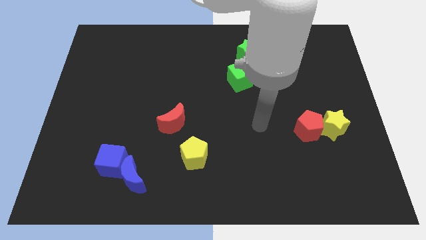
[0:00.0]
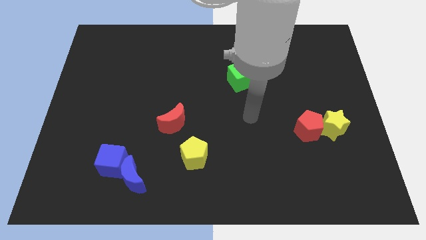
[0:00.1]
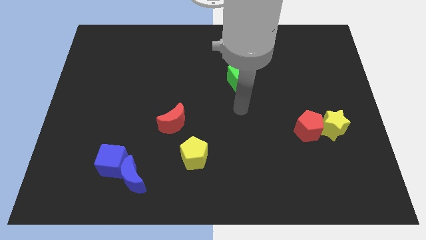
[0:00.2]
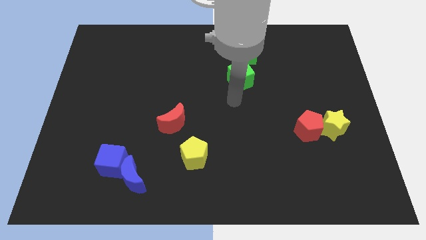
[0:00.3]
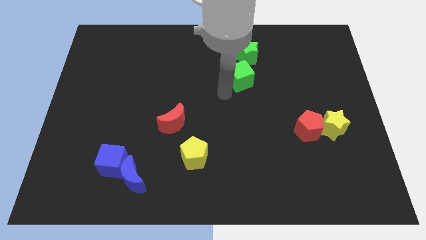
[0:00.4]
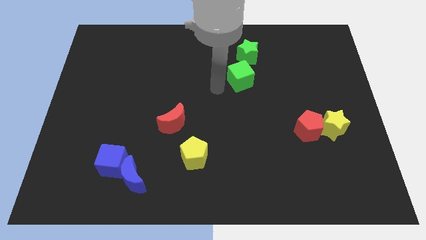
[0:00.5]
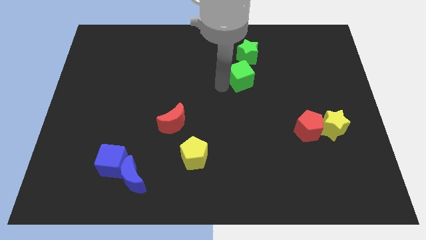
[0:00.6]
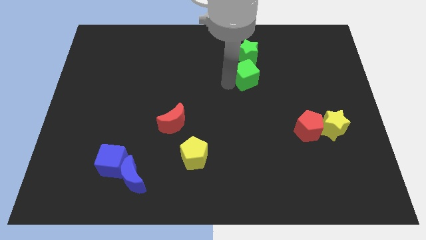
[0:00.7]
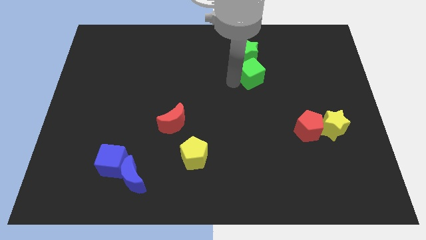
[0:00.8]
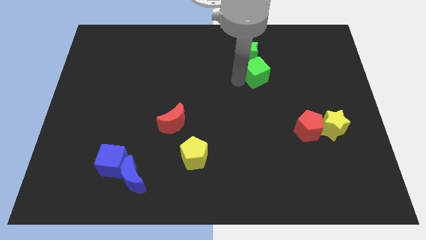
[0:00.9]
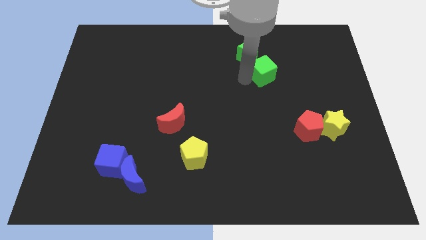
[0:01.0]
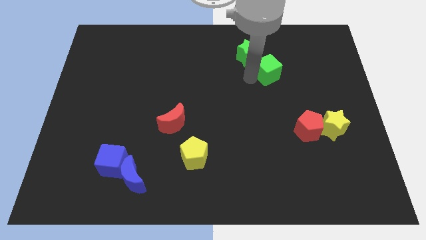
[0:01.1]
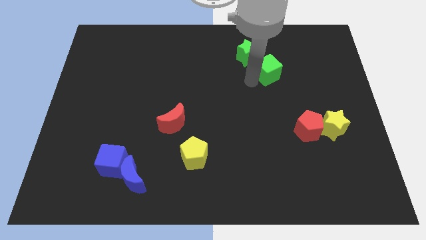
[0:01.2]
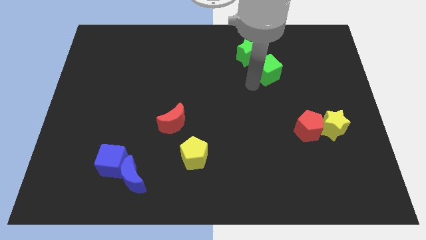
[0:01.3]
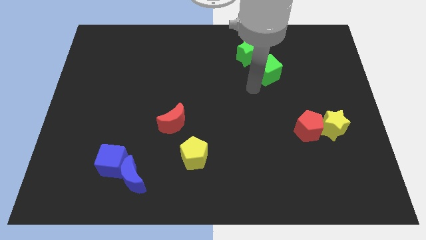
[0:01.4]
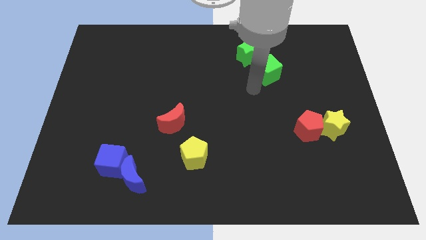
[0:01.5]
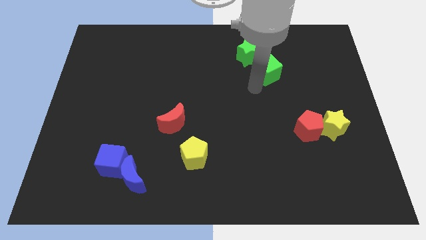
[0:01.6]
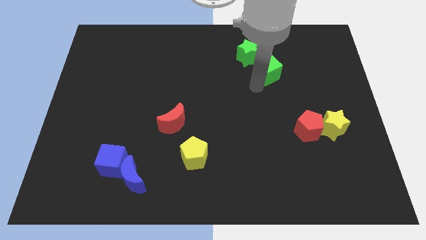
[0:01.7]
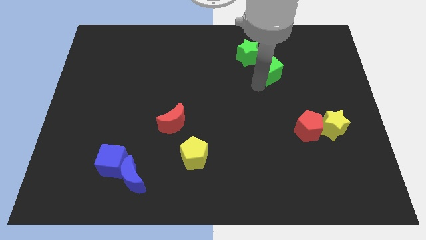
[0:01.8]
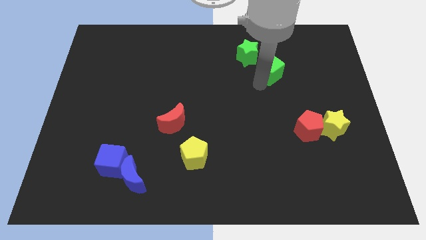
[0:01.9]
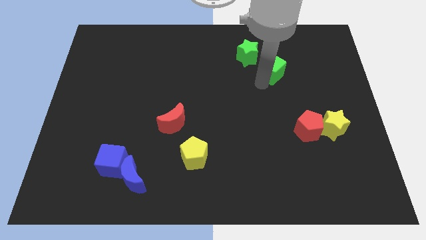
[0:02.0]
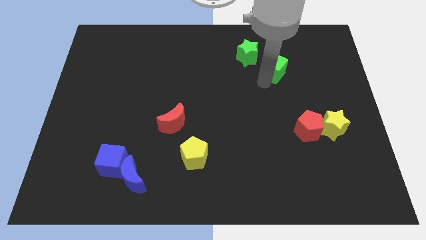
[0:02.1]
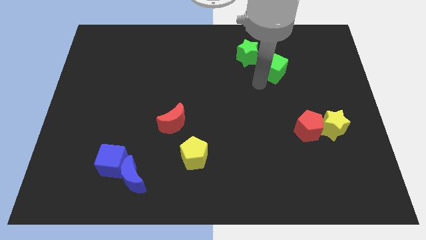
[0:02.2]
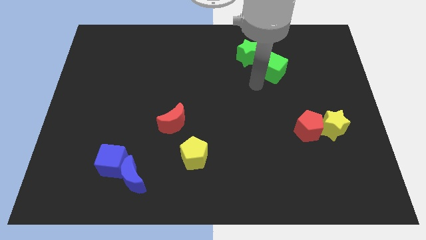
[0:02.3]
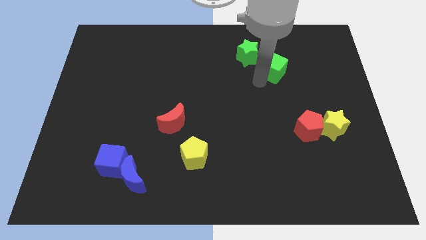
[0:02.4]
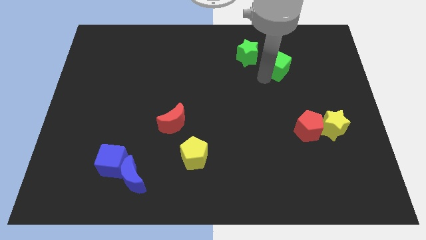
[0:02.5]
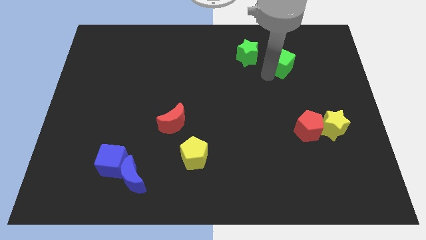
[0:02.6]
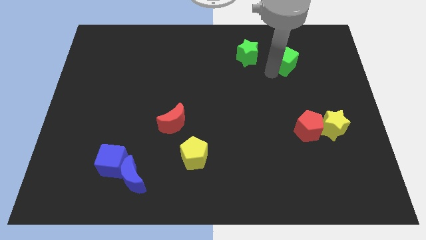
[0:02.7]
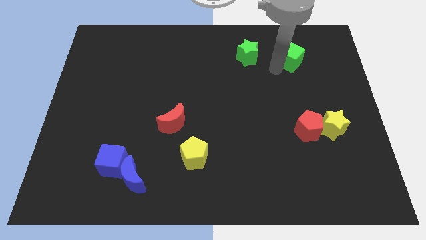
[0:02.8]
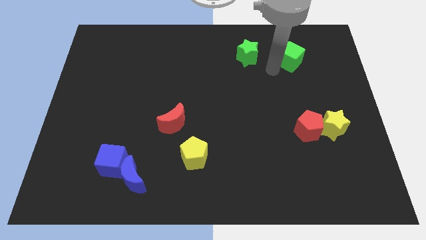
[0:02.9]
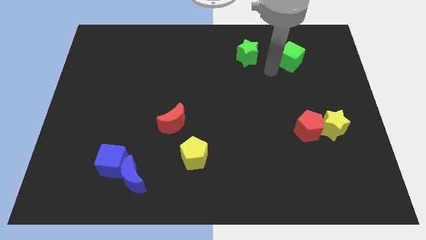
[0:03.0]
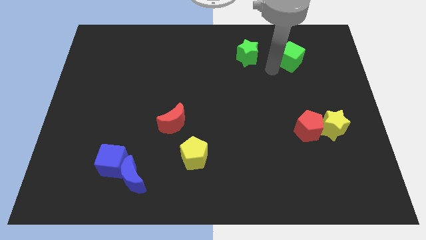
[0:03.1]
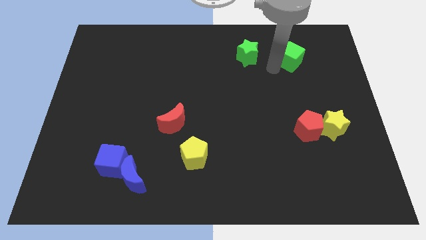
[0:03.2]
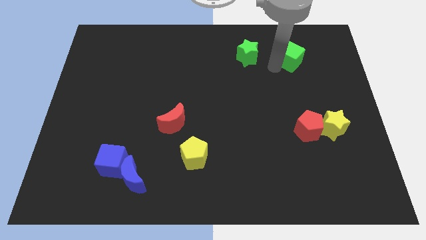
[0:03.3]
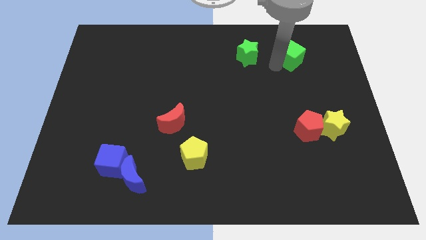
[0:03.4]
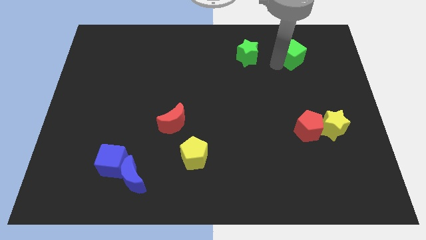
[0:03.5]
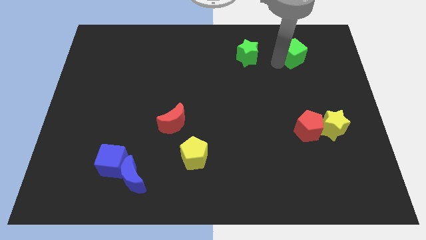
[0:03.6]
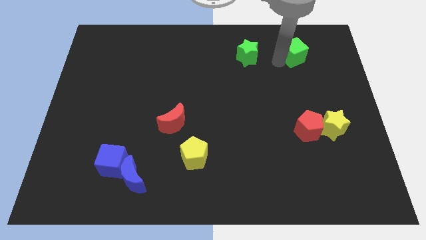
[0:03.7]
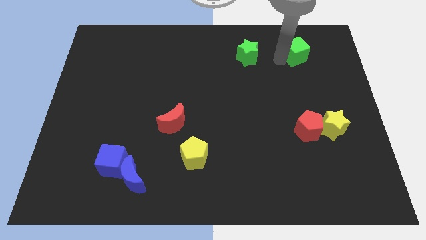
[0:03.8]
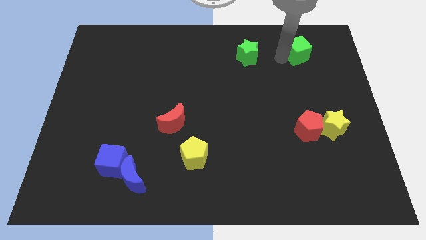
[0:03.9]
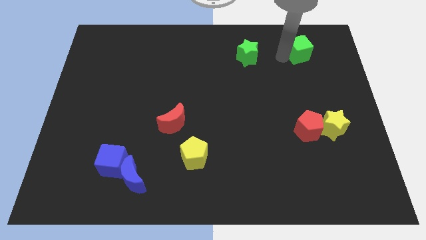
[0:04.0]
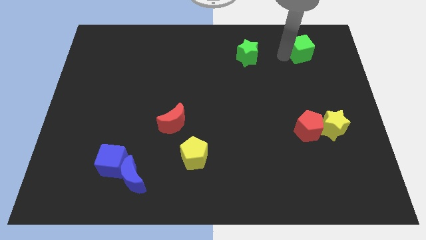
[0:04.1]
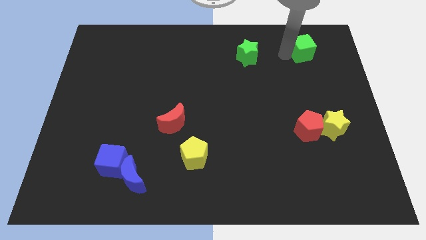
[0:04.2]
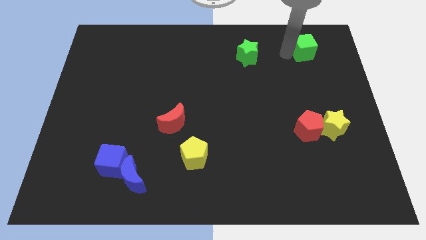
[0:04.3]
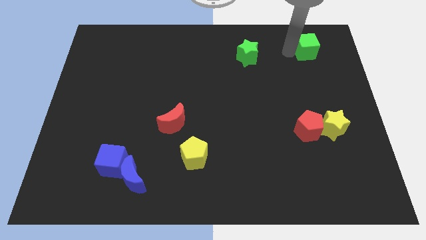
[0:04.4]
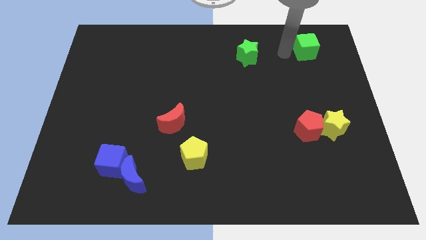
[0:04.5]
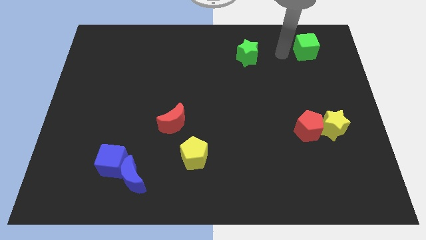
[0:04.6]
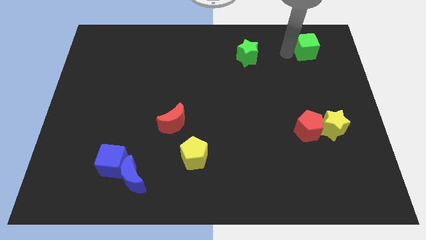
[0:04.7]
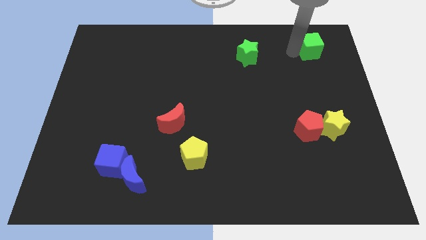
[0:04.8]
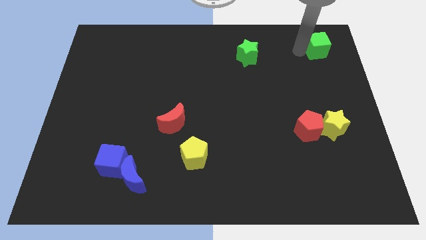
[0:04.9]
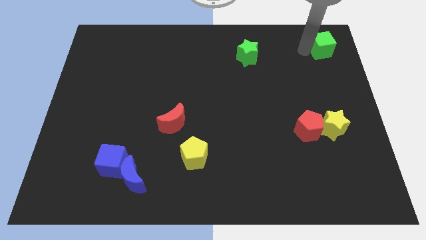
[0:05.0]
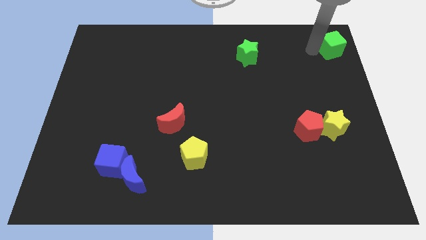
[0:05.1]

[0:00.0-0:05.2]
move the green cube to the top right

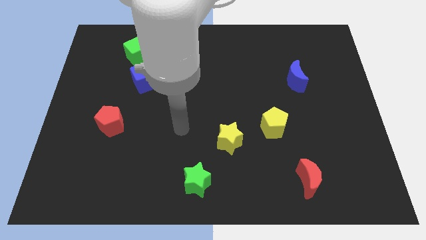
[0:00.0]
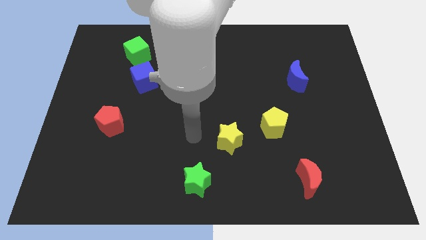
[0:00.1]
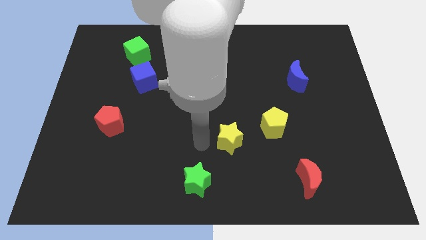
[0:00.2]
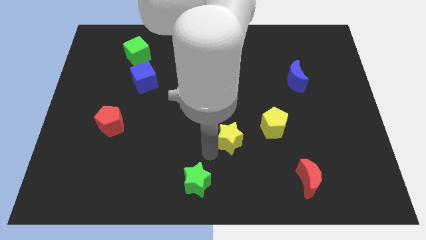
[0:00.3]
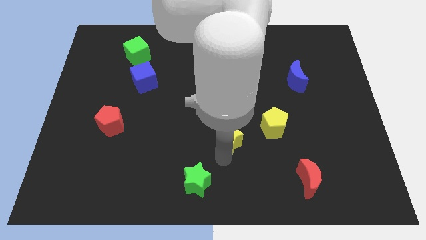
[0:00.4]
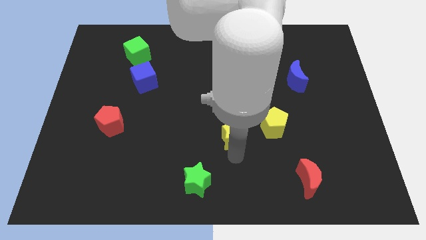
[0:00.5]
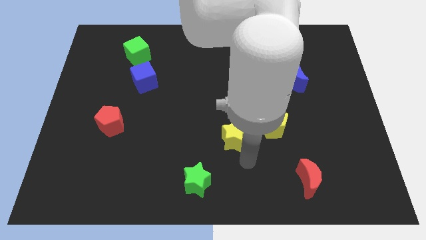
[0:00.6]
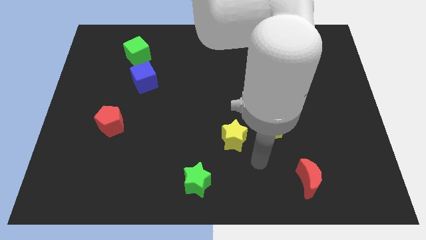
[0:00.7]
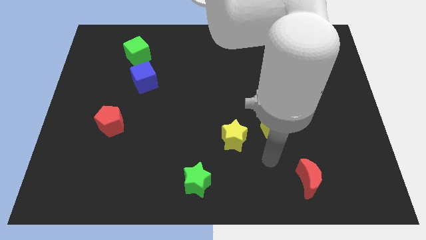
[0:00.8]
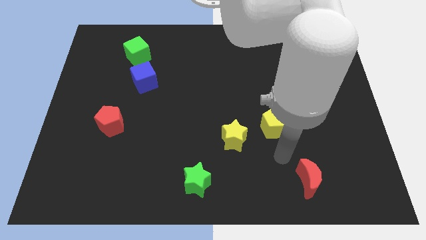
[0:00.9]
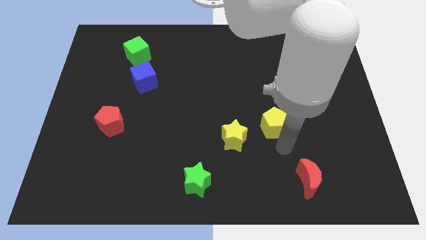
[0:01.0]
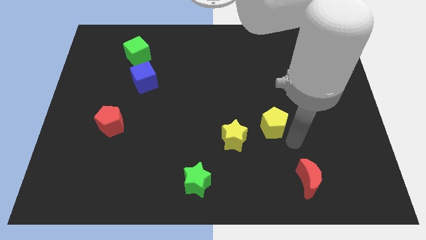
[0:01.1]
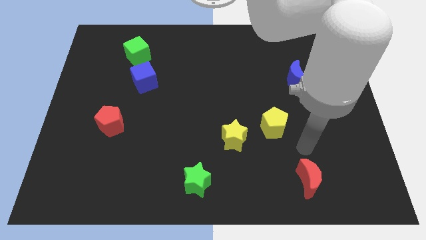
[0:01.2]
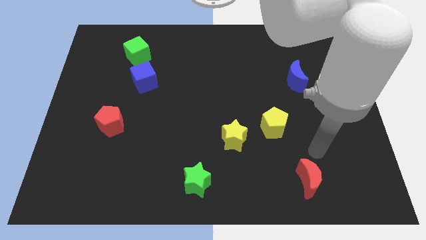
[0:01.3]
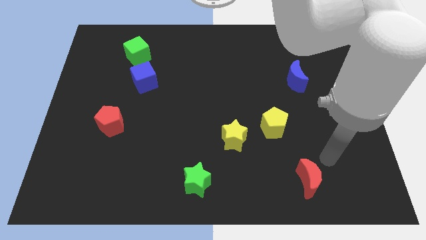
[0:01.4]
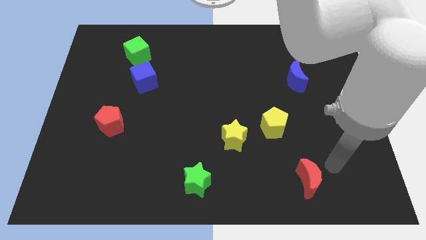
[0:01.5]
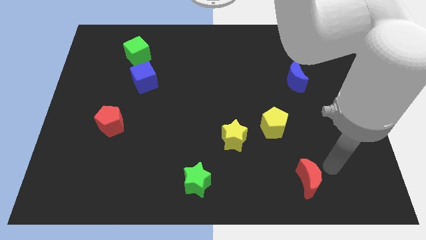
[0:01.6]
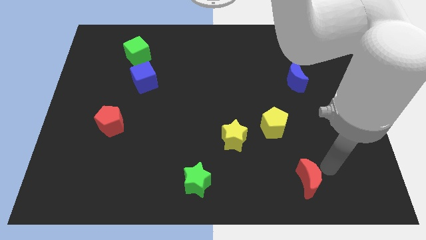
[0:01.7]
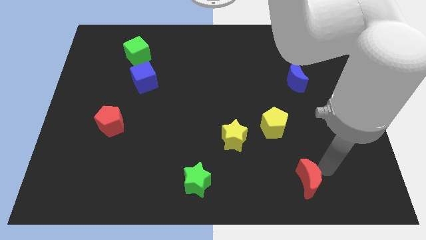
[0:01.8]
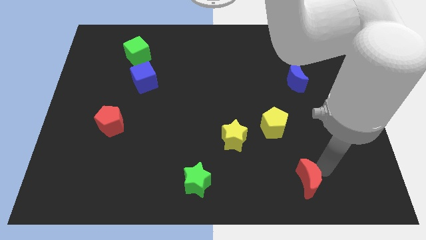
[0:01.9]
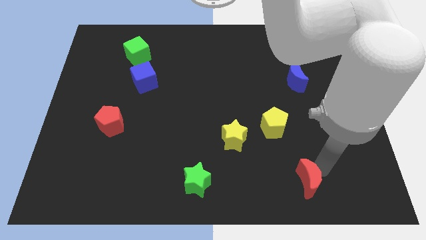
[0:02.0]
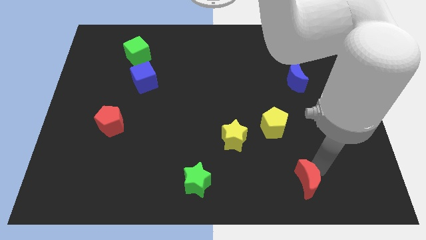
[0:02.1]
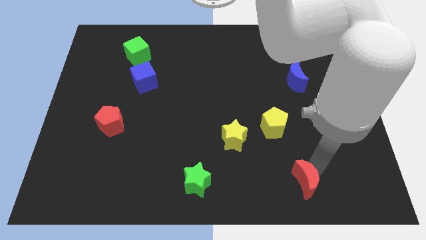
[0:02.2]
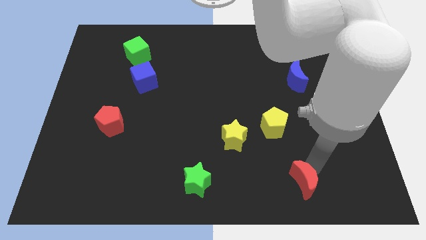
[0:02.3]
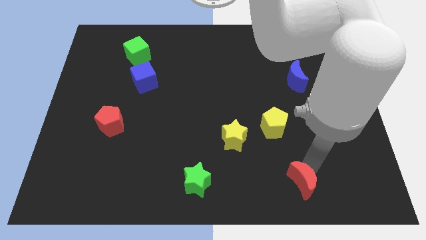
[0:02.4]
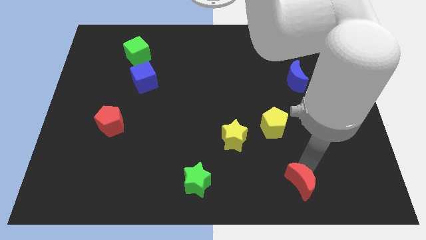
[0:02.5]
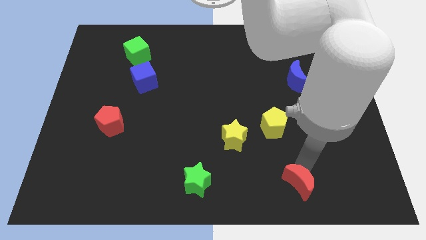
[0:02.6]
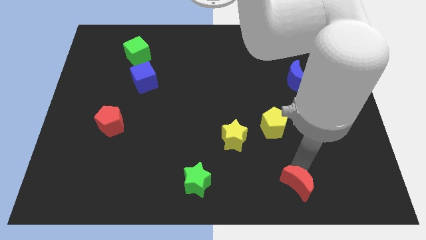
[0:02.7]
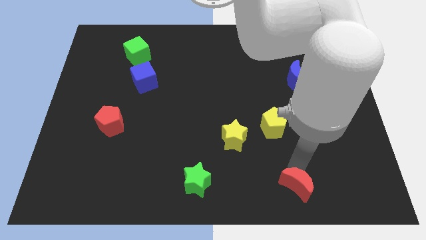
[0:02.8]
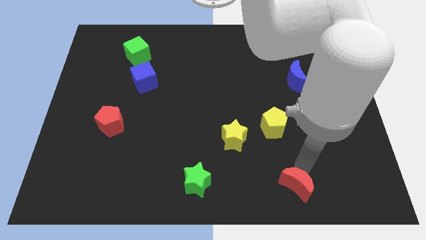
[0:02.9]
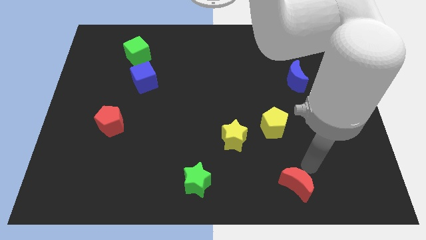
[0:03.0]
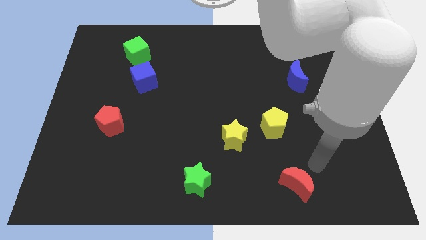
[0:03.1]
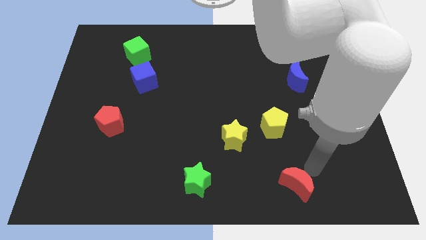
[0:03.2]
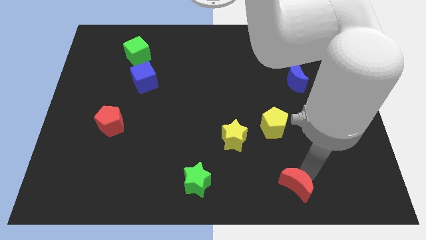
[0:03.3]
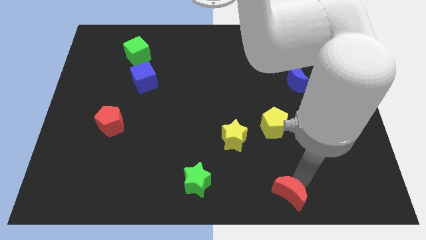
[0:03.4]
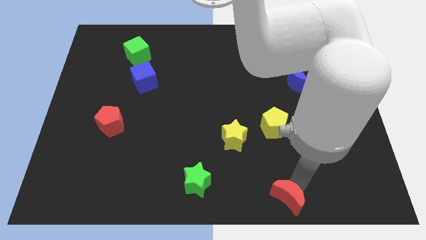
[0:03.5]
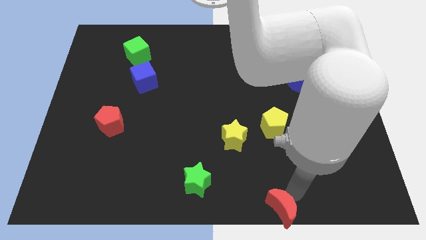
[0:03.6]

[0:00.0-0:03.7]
push the red moon to the bottom side
